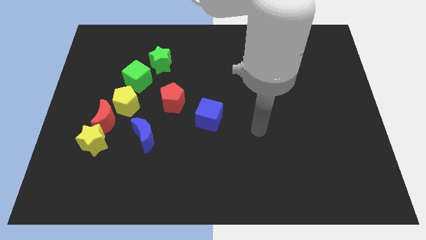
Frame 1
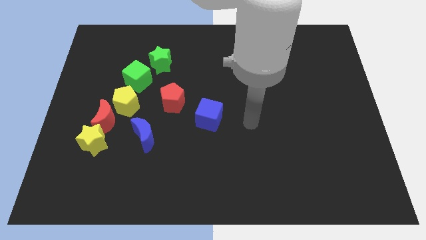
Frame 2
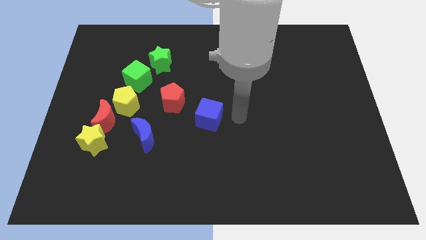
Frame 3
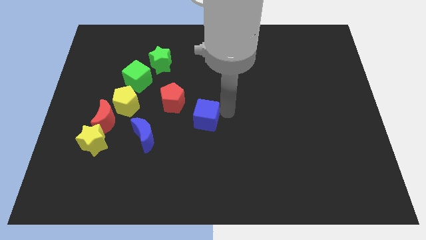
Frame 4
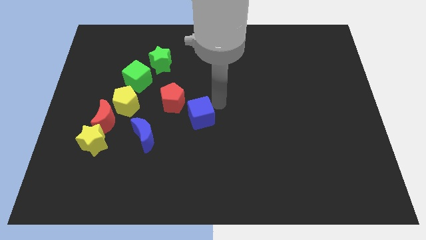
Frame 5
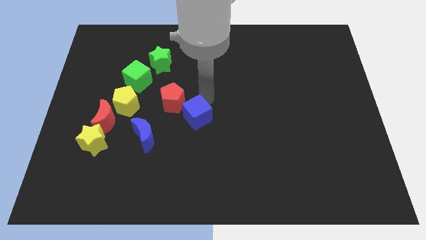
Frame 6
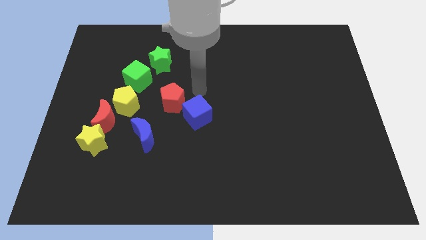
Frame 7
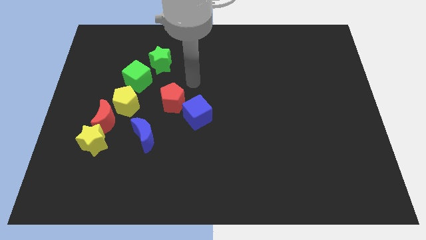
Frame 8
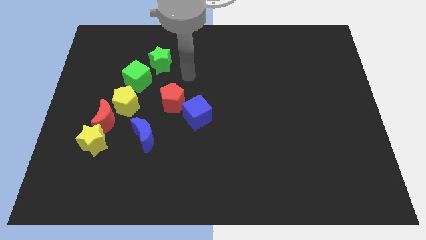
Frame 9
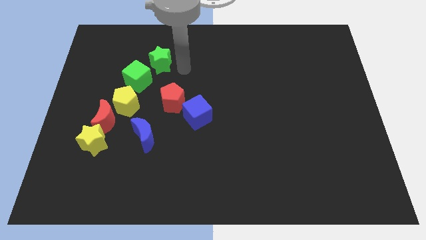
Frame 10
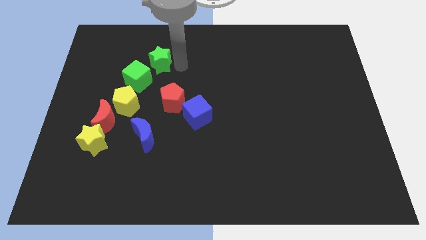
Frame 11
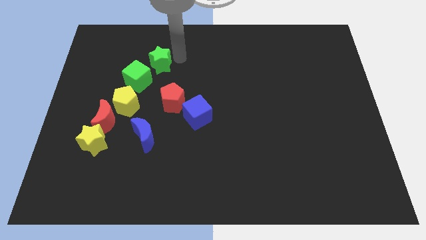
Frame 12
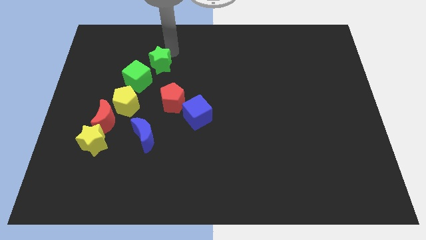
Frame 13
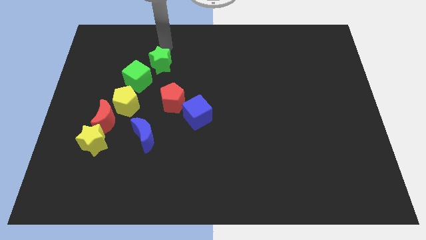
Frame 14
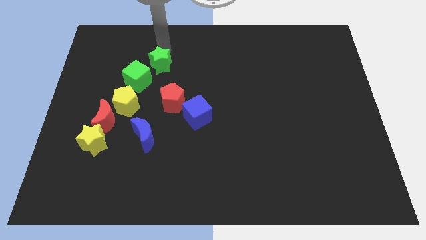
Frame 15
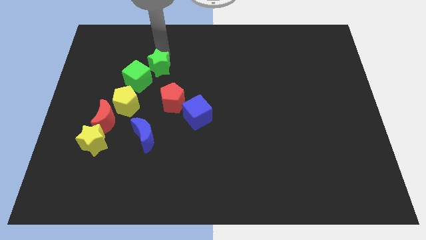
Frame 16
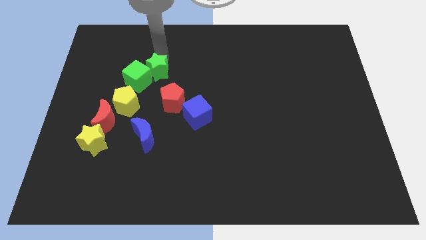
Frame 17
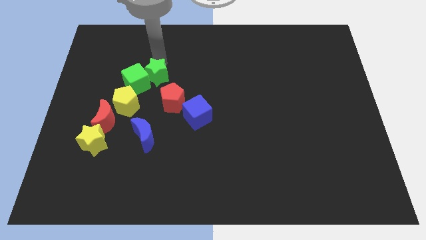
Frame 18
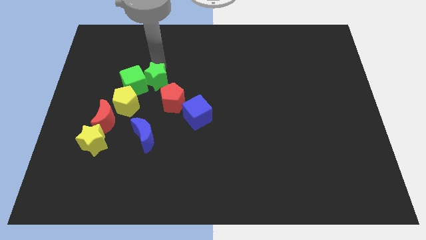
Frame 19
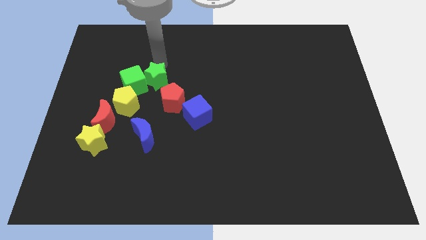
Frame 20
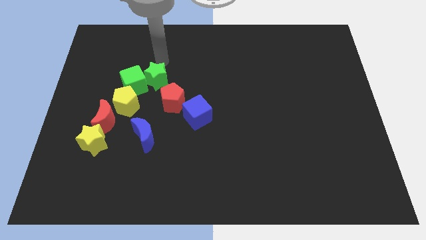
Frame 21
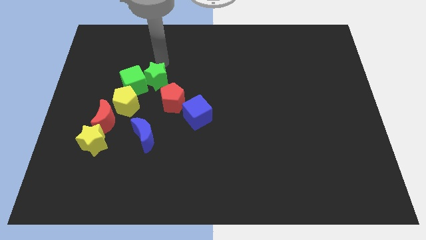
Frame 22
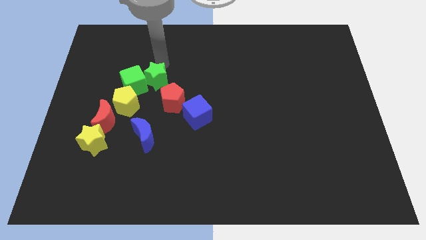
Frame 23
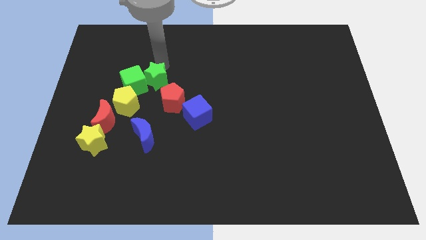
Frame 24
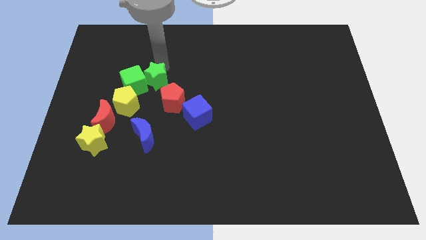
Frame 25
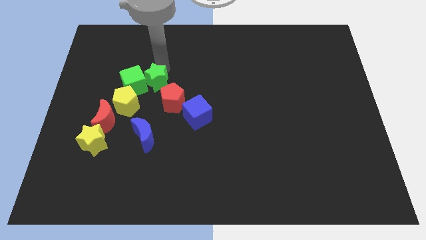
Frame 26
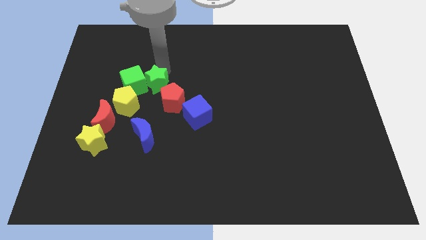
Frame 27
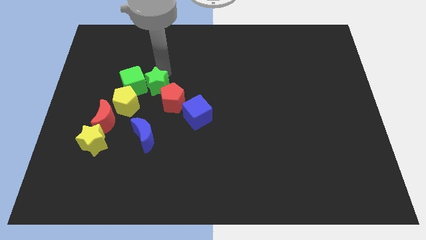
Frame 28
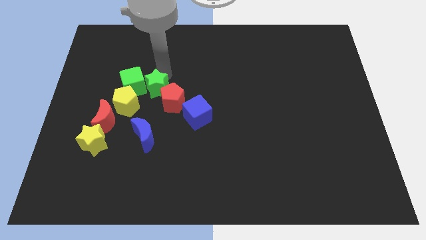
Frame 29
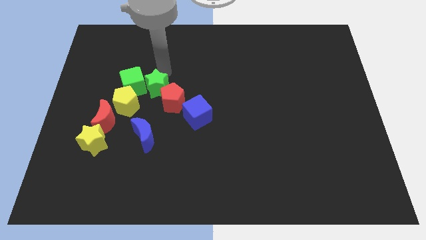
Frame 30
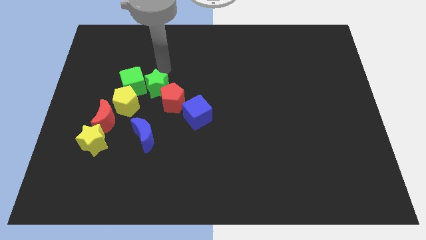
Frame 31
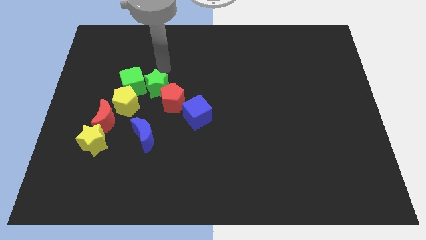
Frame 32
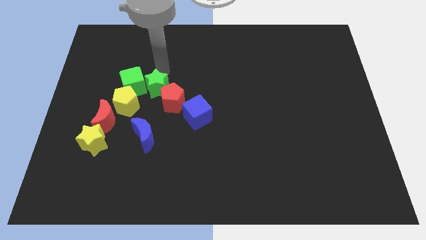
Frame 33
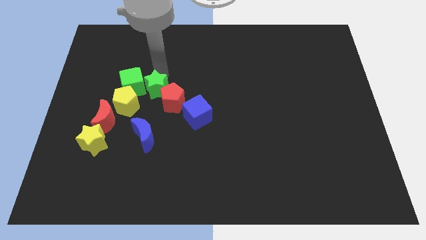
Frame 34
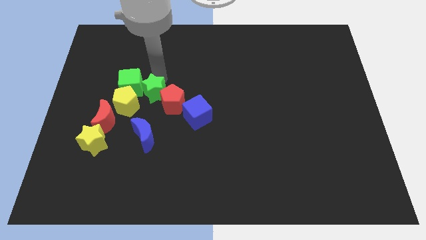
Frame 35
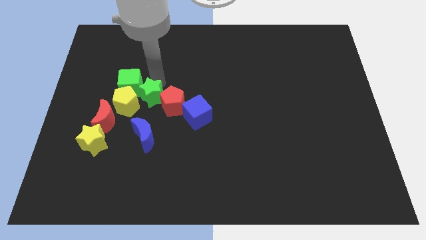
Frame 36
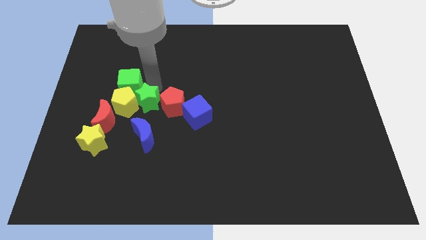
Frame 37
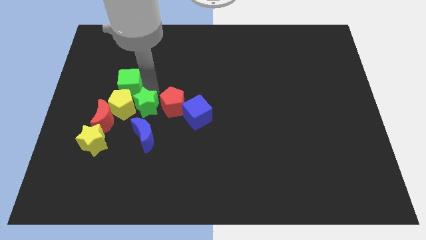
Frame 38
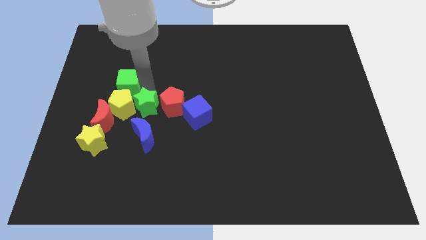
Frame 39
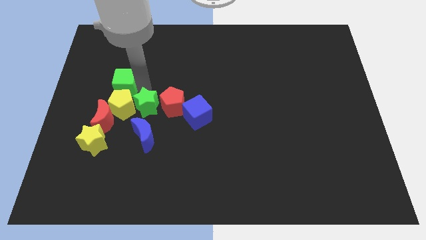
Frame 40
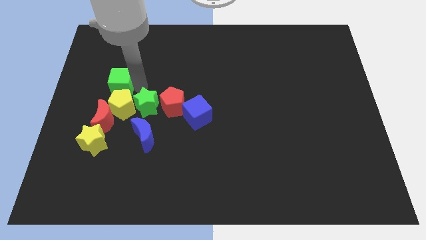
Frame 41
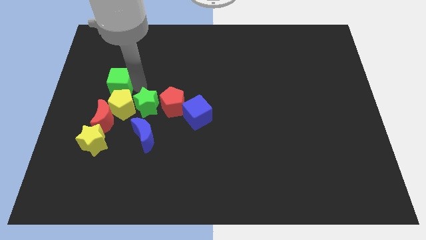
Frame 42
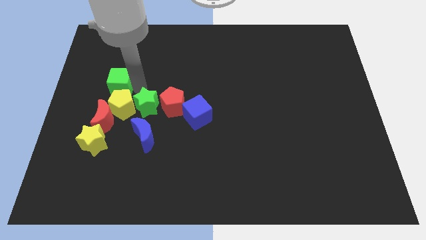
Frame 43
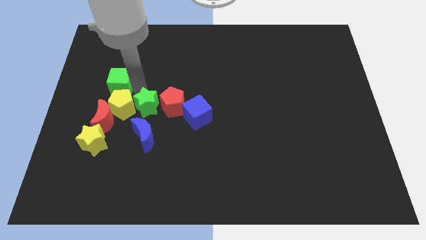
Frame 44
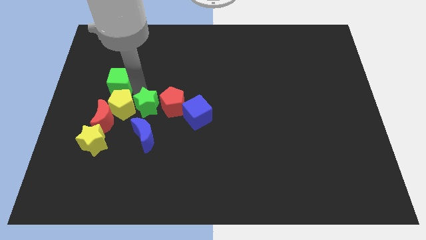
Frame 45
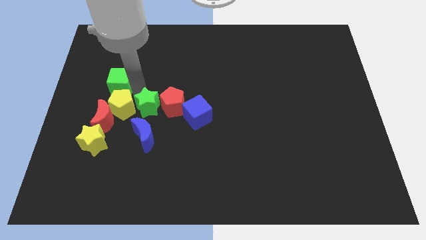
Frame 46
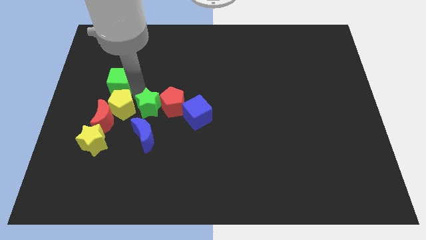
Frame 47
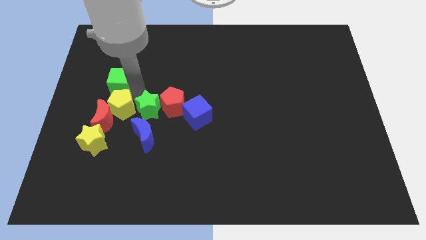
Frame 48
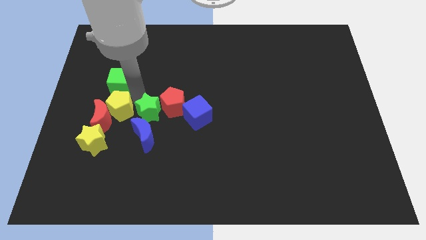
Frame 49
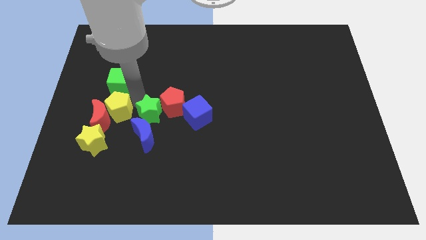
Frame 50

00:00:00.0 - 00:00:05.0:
push the green star towards the blue moon

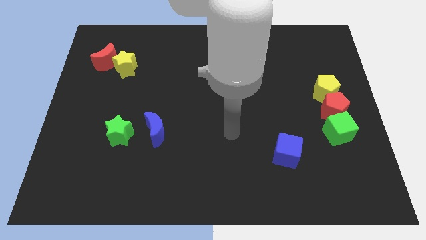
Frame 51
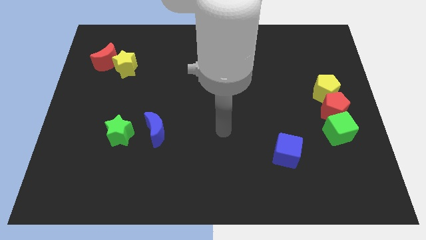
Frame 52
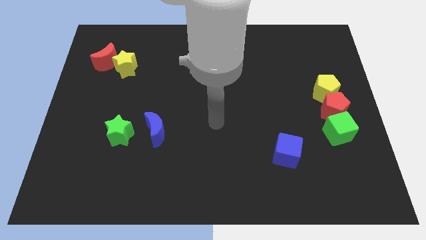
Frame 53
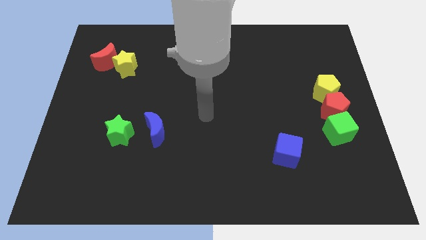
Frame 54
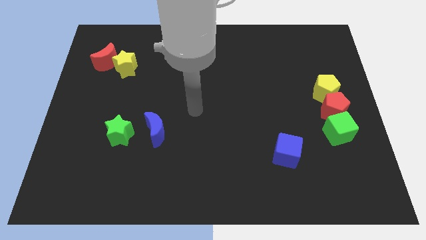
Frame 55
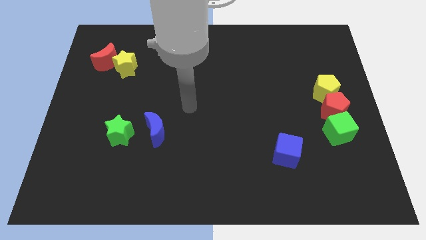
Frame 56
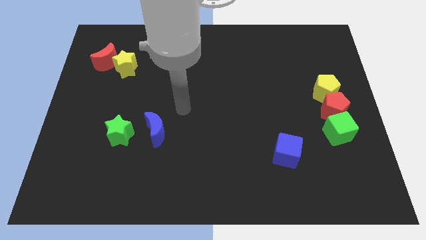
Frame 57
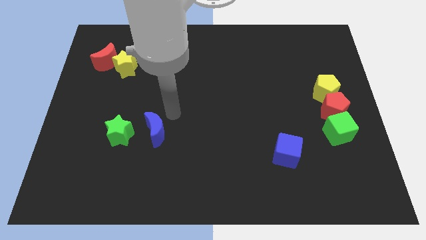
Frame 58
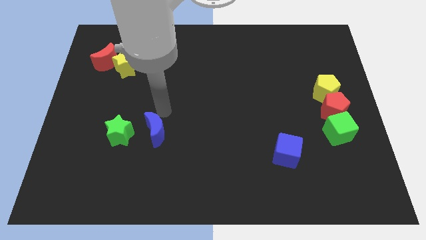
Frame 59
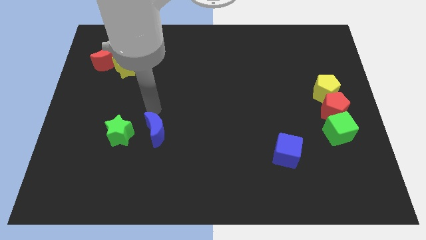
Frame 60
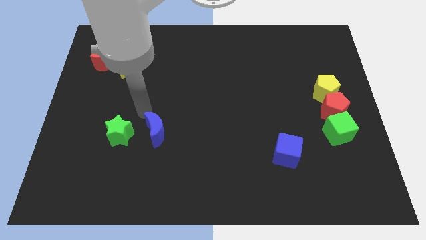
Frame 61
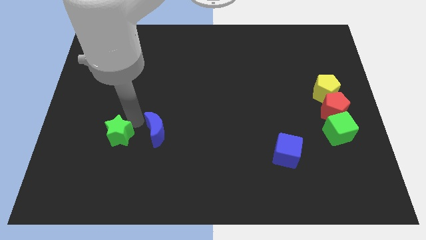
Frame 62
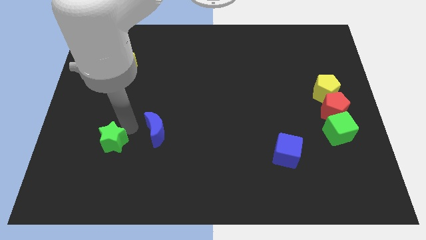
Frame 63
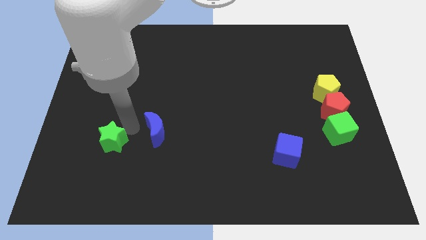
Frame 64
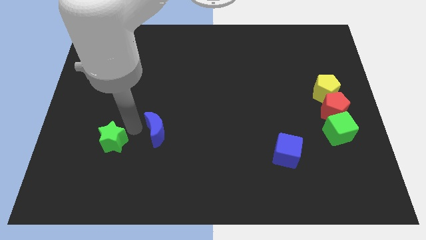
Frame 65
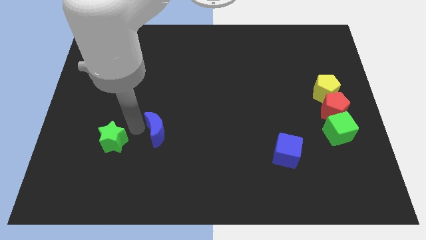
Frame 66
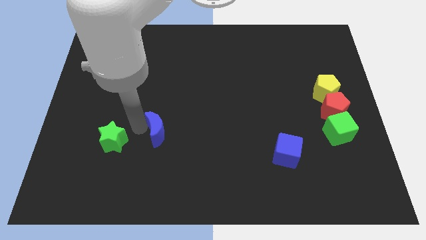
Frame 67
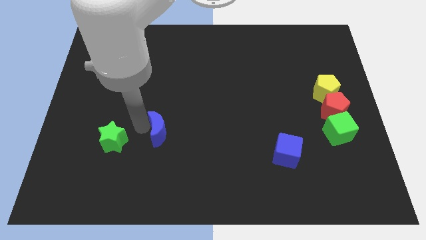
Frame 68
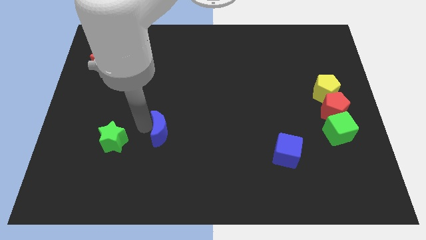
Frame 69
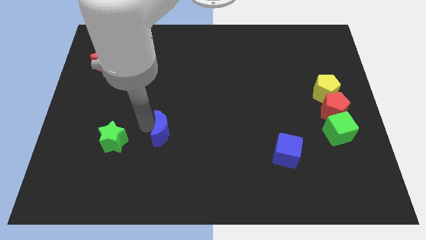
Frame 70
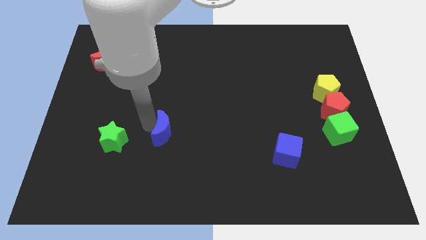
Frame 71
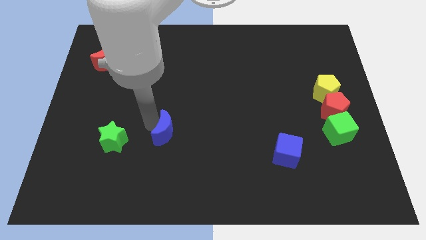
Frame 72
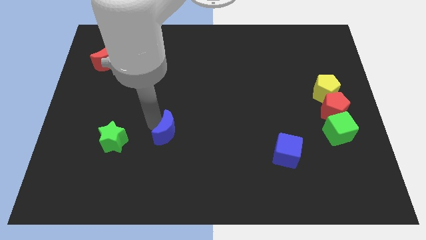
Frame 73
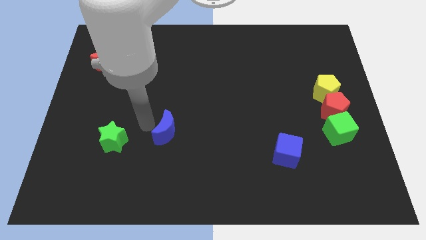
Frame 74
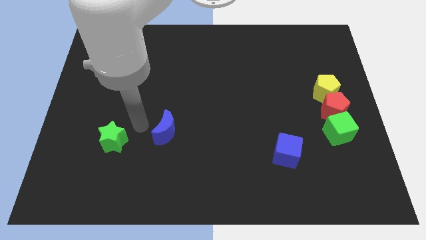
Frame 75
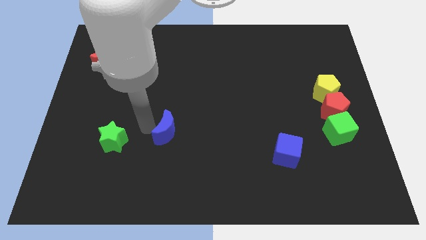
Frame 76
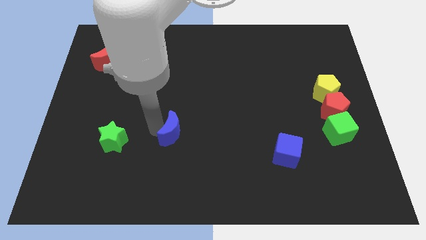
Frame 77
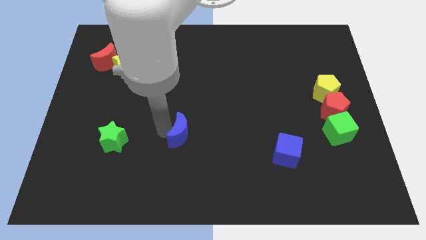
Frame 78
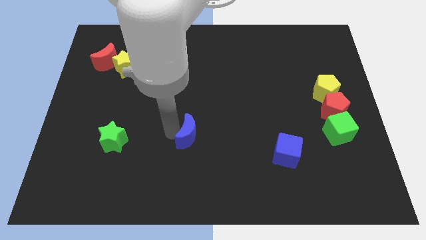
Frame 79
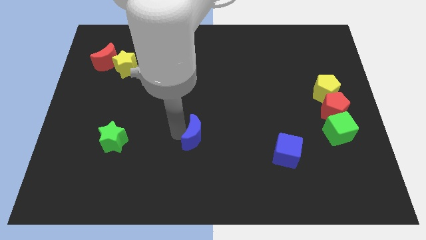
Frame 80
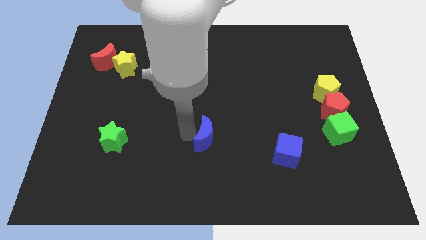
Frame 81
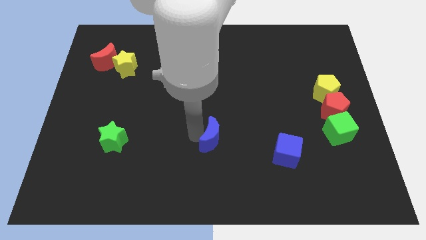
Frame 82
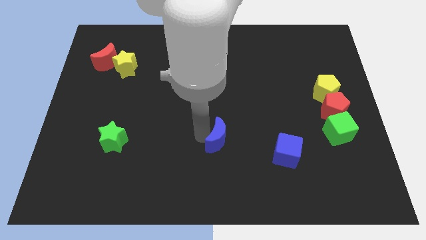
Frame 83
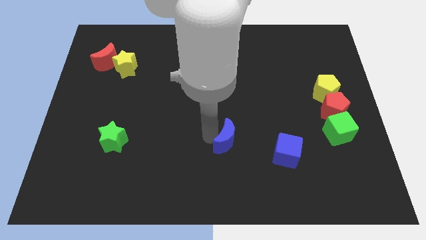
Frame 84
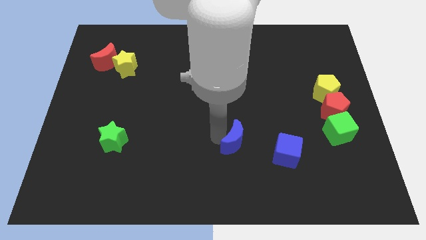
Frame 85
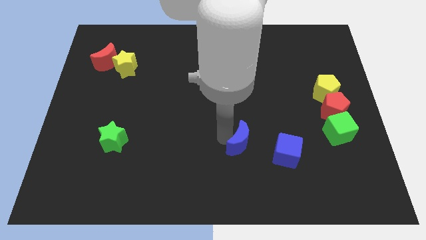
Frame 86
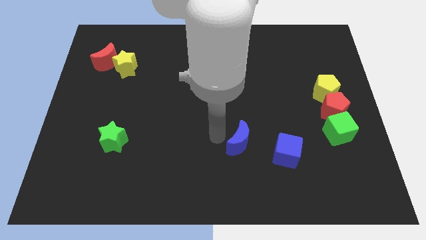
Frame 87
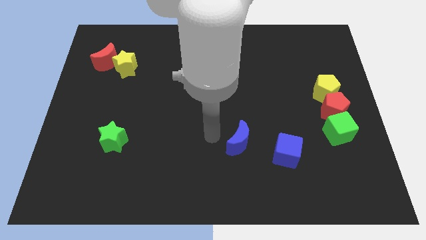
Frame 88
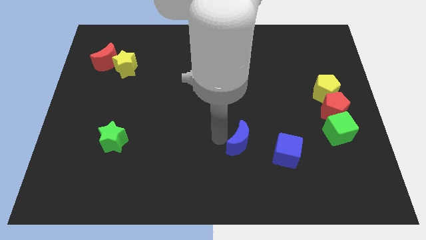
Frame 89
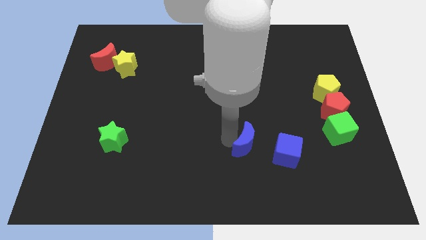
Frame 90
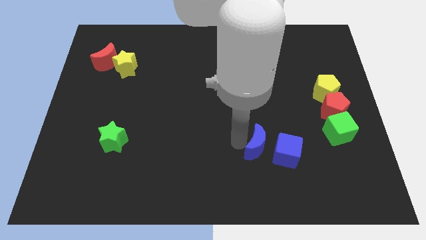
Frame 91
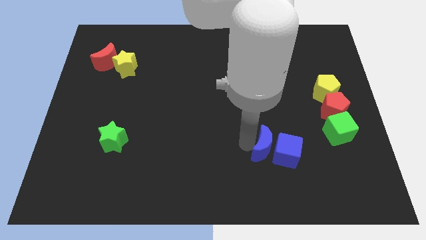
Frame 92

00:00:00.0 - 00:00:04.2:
slide the blue moon to the blue cube
